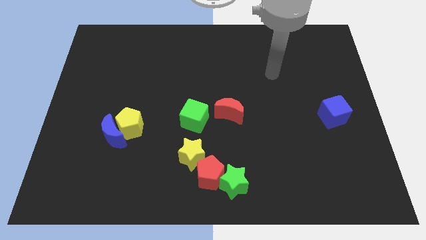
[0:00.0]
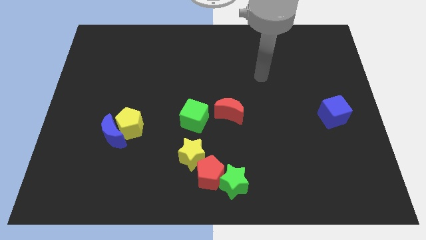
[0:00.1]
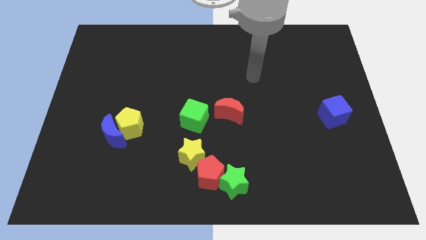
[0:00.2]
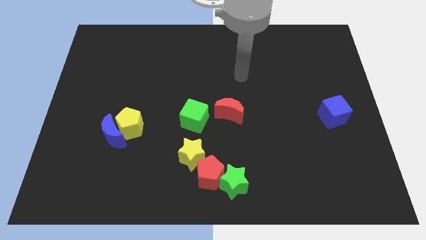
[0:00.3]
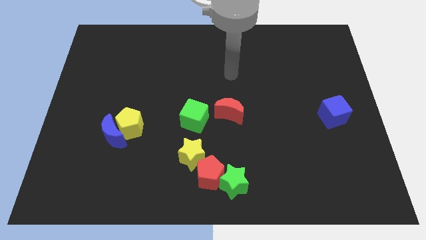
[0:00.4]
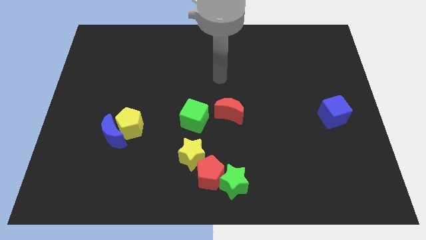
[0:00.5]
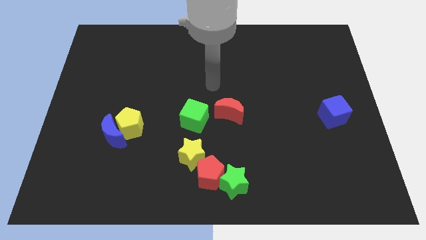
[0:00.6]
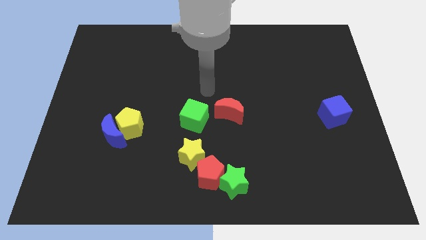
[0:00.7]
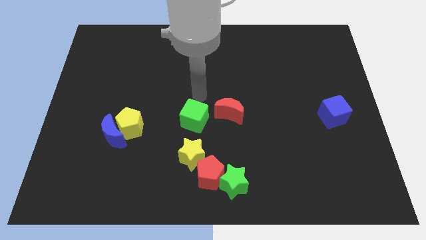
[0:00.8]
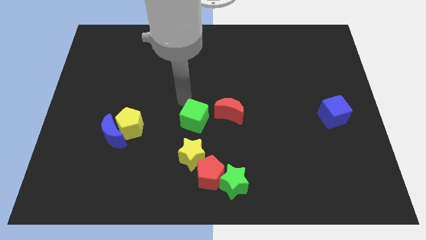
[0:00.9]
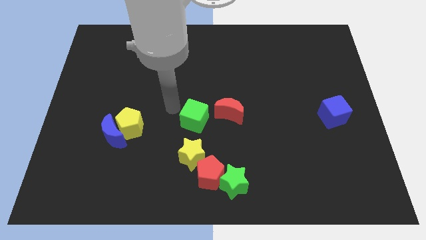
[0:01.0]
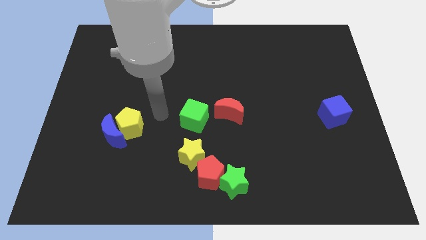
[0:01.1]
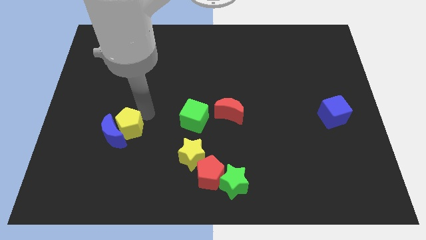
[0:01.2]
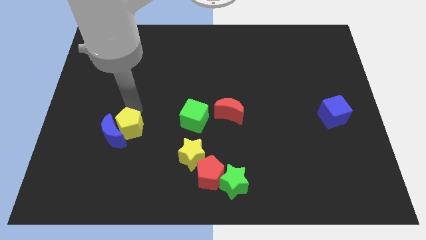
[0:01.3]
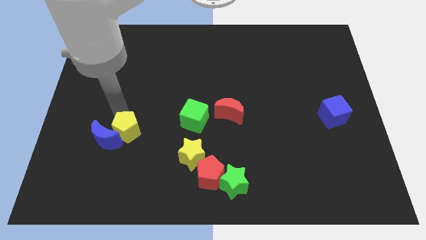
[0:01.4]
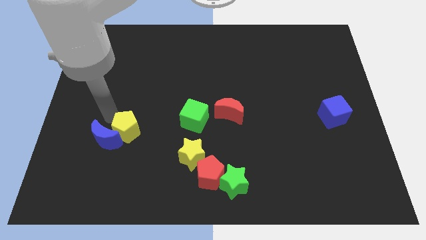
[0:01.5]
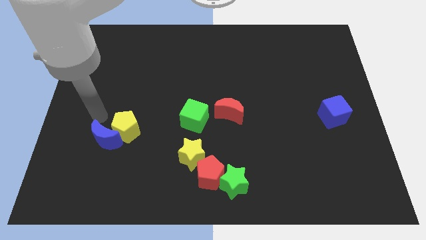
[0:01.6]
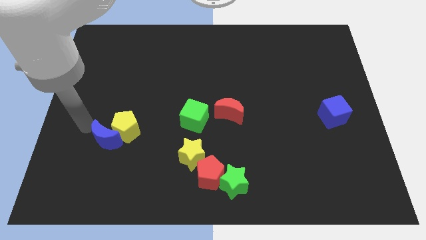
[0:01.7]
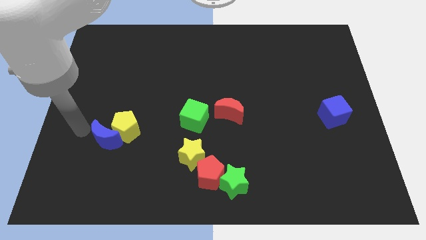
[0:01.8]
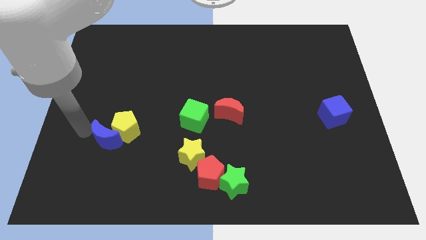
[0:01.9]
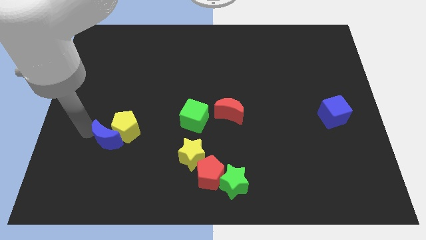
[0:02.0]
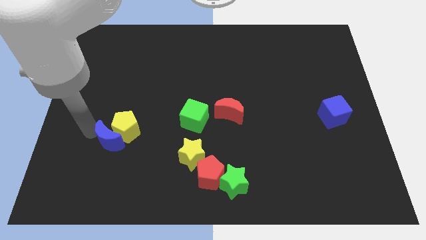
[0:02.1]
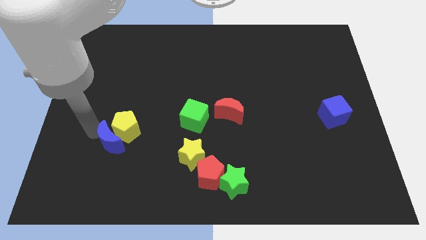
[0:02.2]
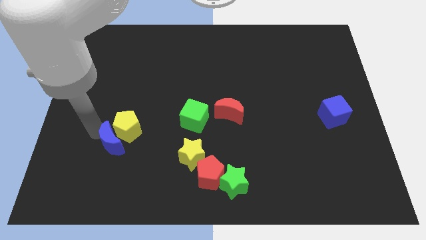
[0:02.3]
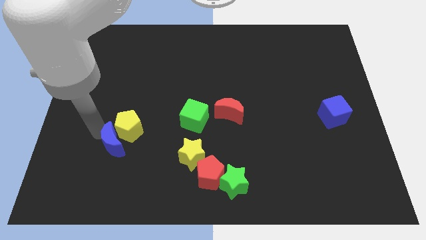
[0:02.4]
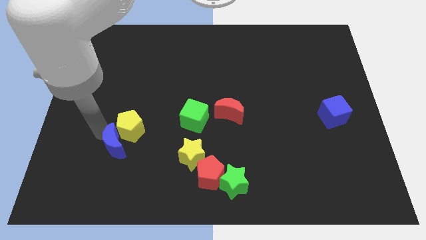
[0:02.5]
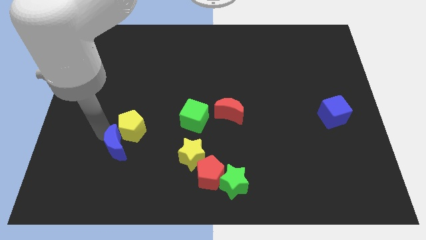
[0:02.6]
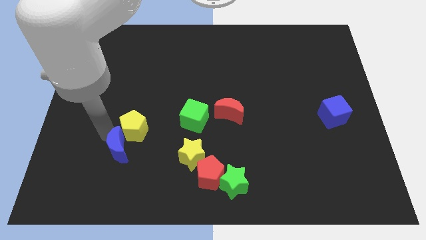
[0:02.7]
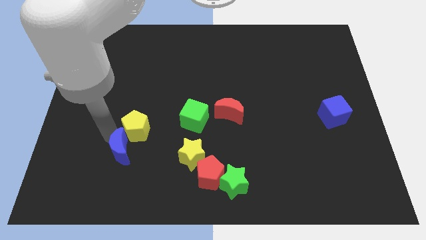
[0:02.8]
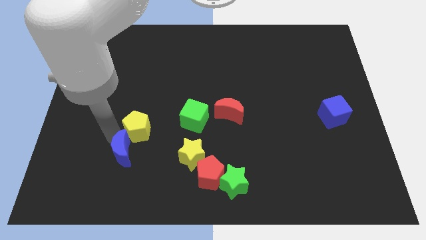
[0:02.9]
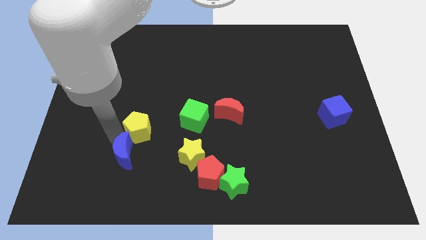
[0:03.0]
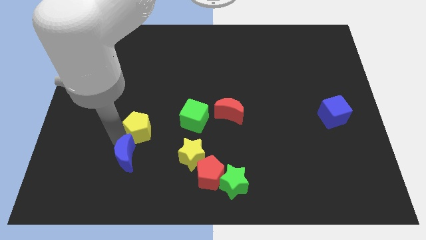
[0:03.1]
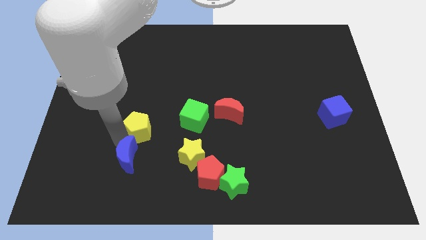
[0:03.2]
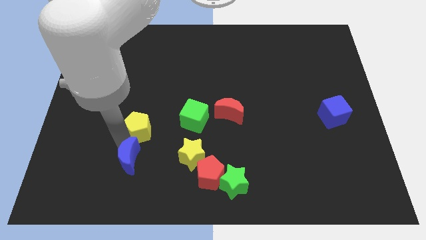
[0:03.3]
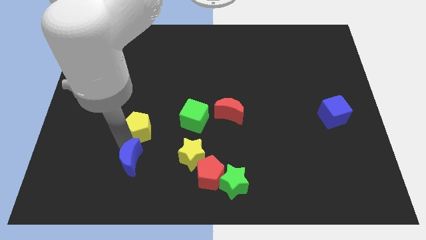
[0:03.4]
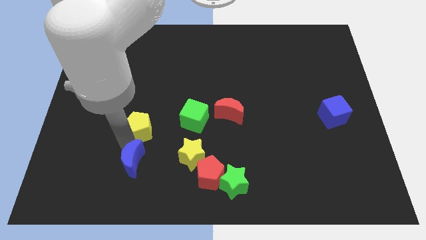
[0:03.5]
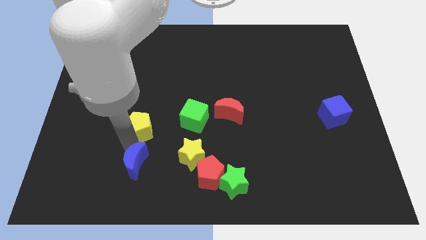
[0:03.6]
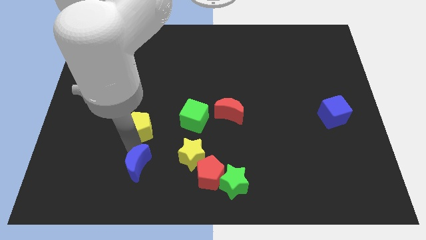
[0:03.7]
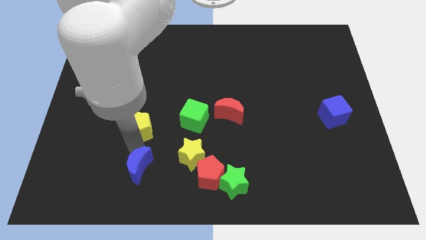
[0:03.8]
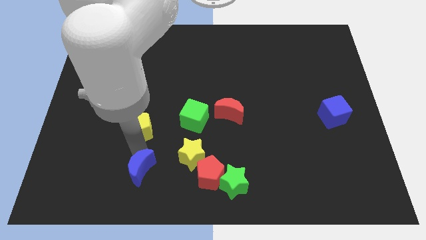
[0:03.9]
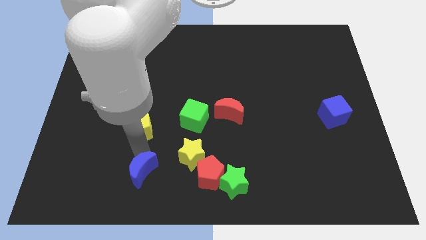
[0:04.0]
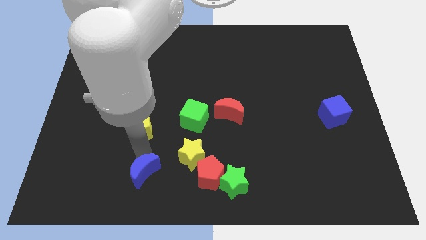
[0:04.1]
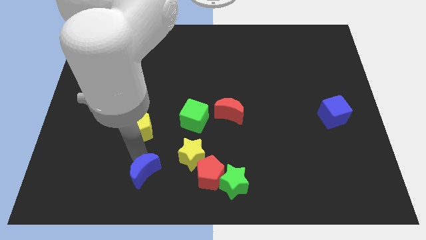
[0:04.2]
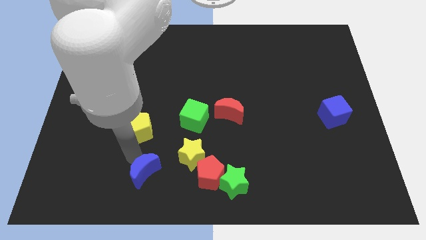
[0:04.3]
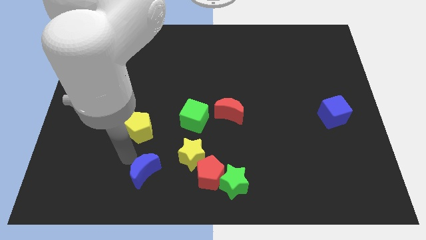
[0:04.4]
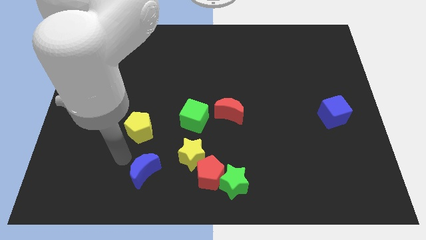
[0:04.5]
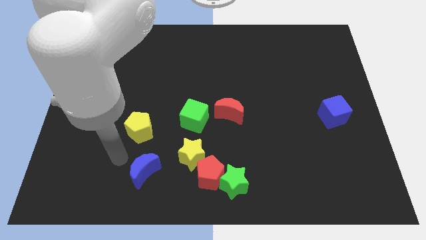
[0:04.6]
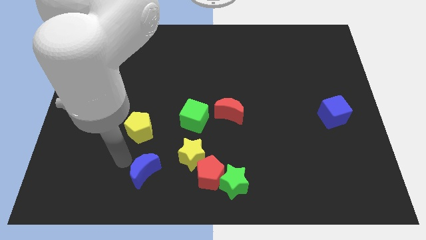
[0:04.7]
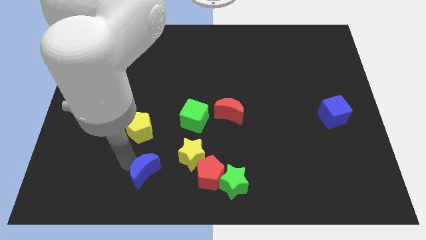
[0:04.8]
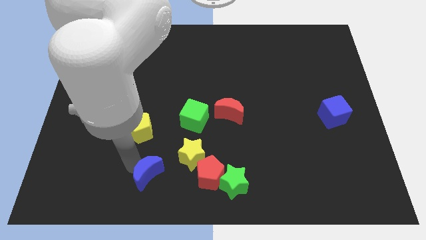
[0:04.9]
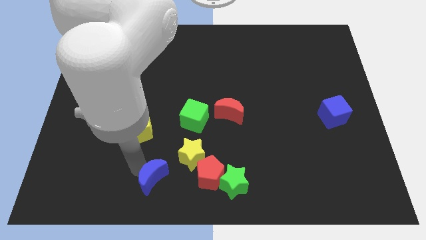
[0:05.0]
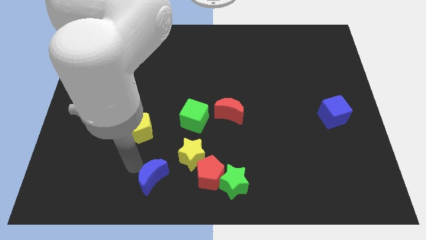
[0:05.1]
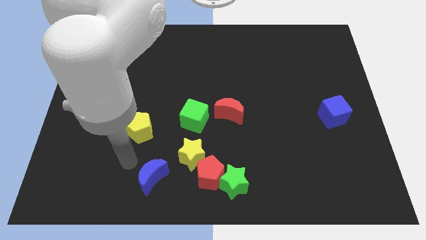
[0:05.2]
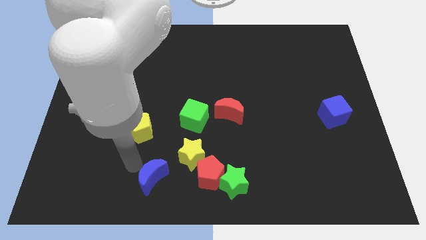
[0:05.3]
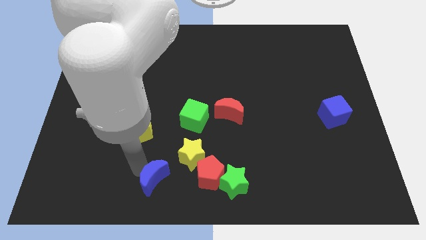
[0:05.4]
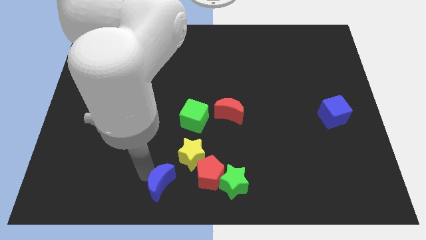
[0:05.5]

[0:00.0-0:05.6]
push the blue moon to the bottom side

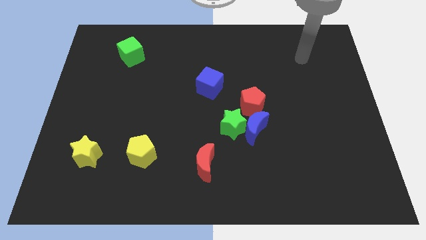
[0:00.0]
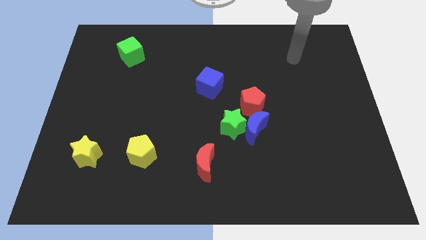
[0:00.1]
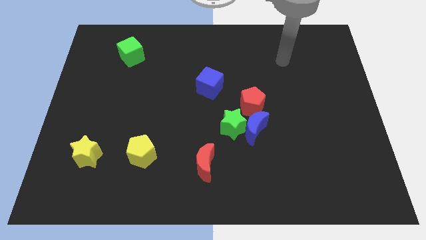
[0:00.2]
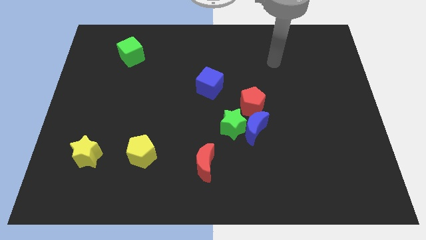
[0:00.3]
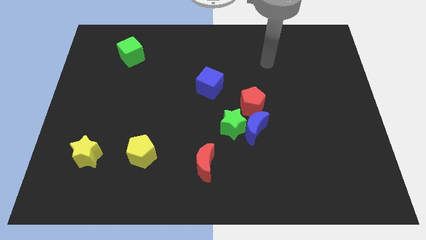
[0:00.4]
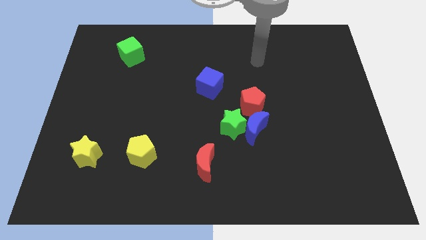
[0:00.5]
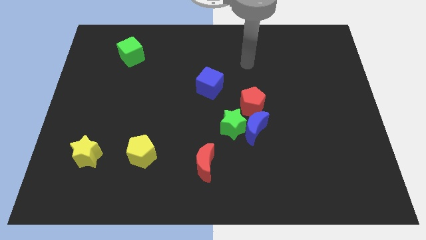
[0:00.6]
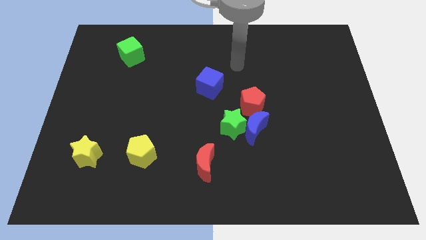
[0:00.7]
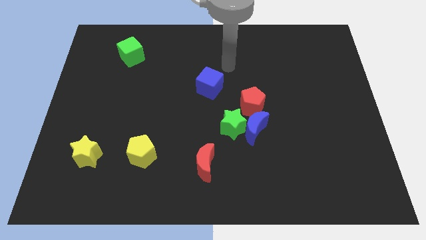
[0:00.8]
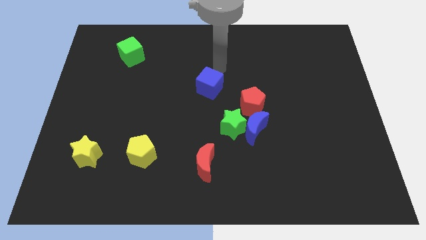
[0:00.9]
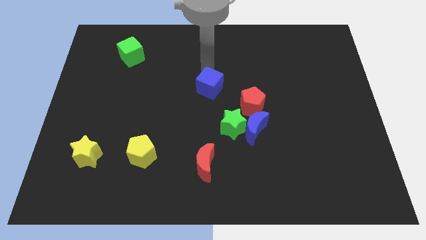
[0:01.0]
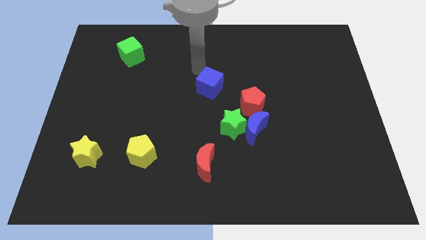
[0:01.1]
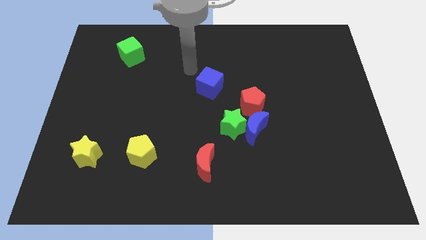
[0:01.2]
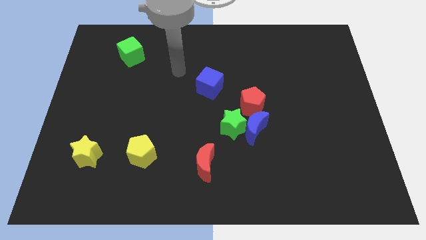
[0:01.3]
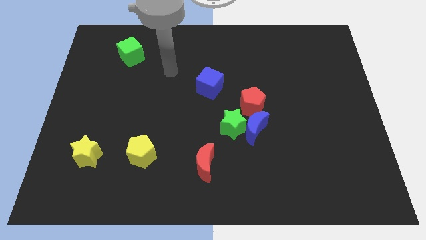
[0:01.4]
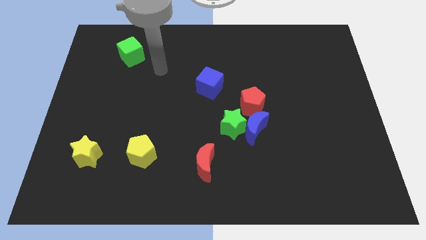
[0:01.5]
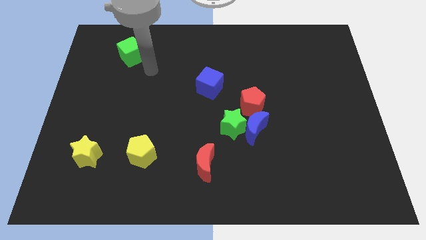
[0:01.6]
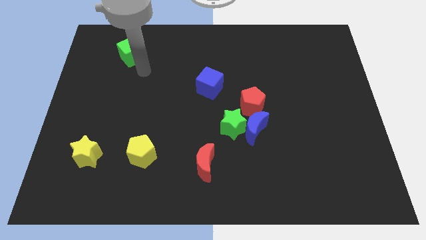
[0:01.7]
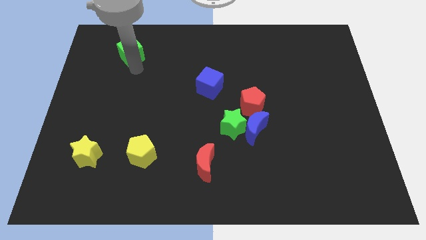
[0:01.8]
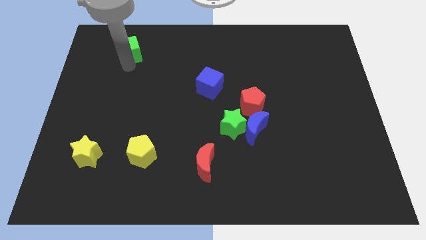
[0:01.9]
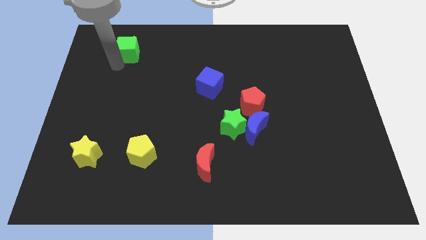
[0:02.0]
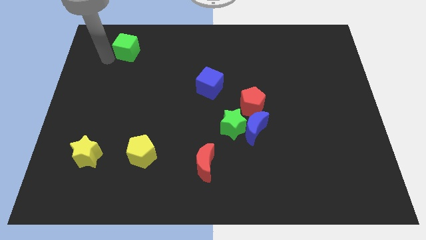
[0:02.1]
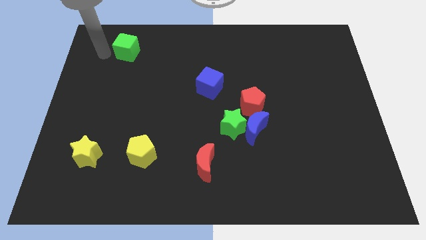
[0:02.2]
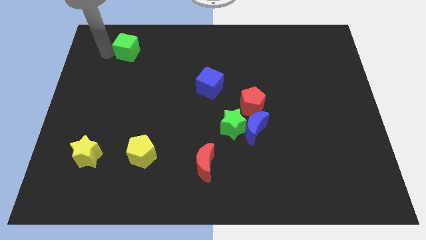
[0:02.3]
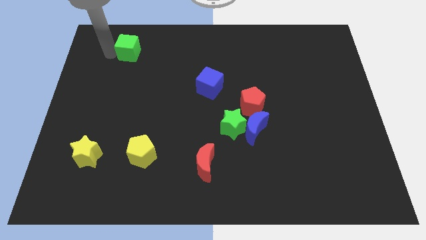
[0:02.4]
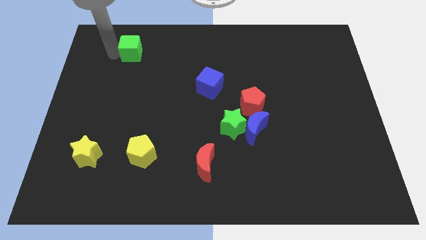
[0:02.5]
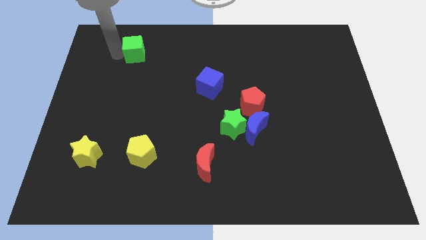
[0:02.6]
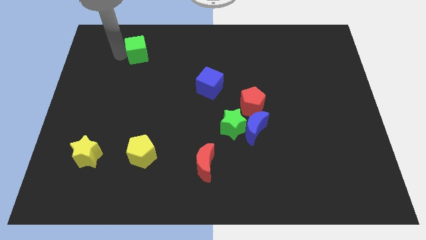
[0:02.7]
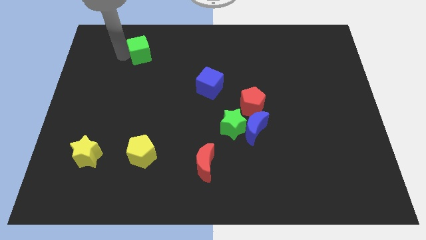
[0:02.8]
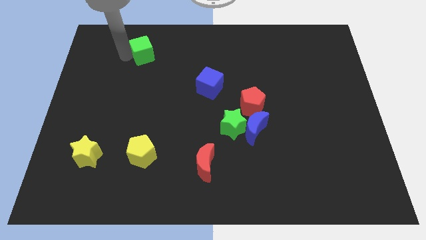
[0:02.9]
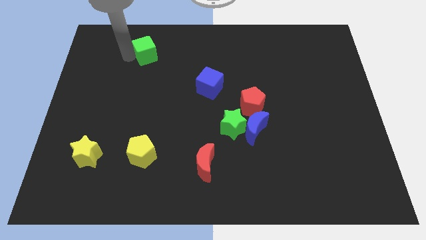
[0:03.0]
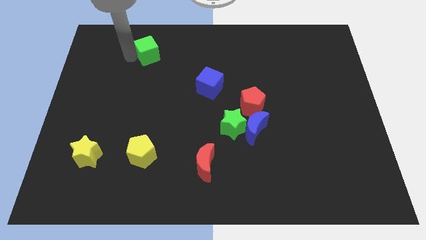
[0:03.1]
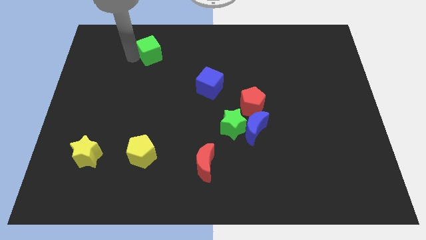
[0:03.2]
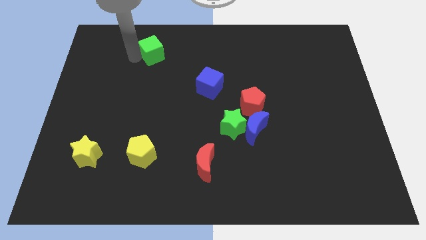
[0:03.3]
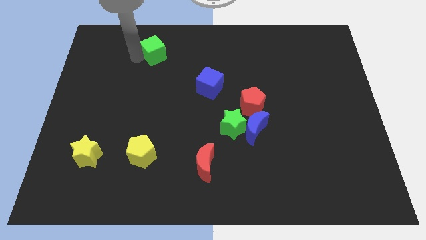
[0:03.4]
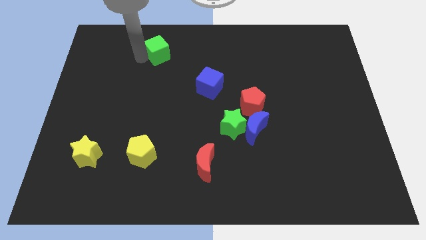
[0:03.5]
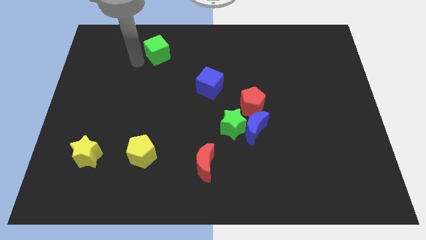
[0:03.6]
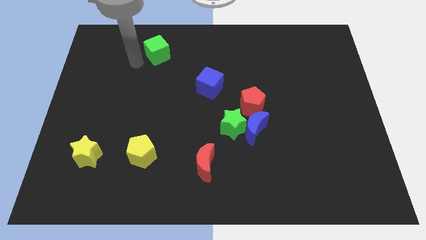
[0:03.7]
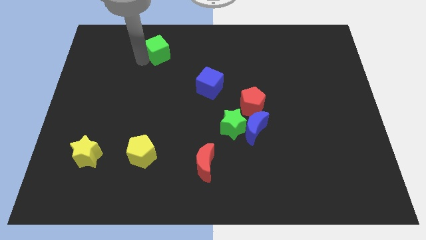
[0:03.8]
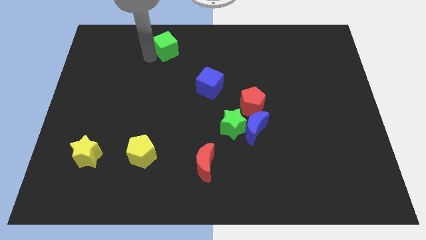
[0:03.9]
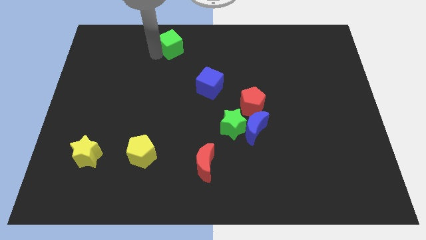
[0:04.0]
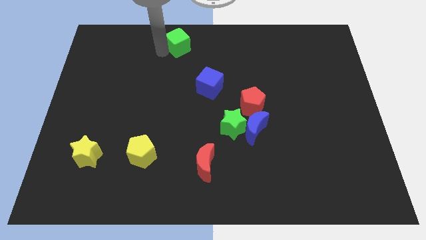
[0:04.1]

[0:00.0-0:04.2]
put the green cube to the towards your base
